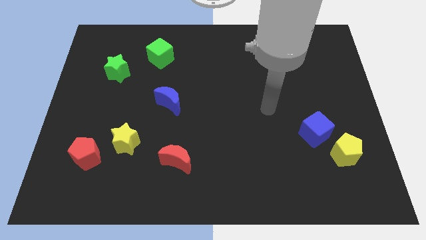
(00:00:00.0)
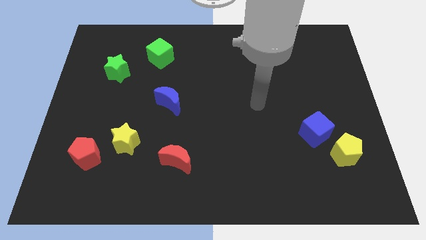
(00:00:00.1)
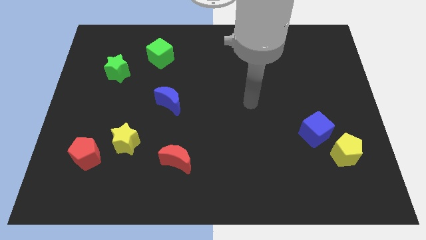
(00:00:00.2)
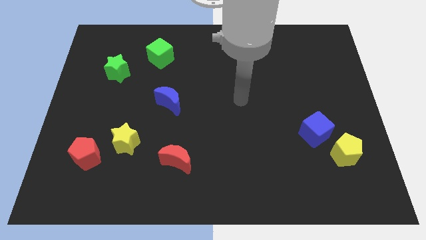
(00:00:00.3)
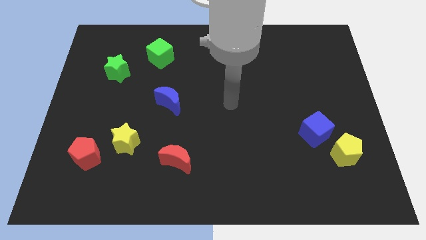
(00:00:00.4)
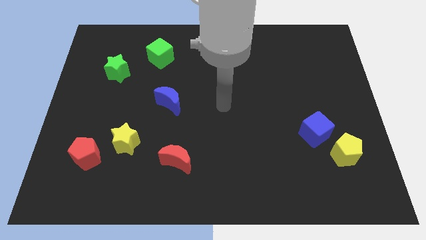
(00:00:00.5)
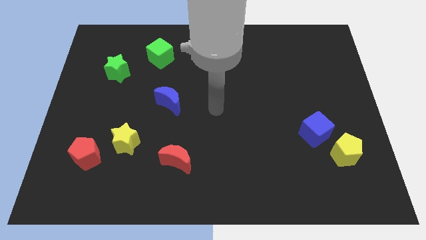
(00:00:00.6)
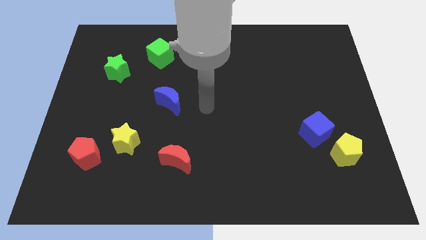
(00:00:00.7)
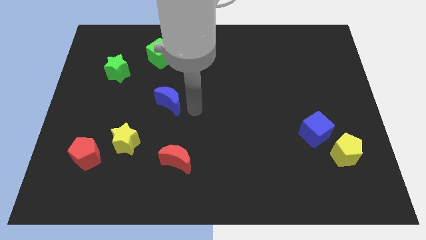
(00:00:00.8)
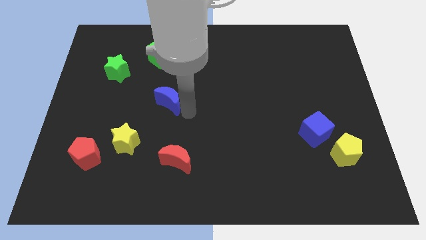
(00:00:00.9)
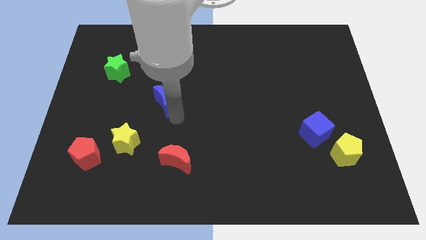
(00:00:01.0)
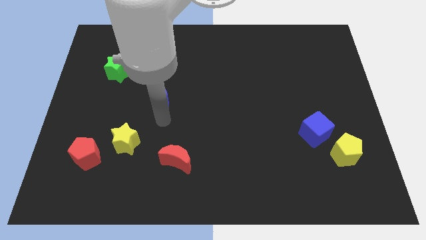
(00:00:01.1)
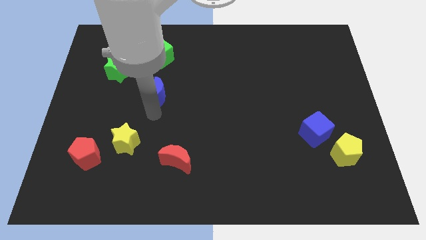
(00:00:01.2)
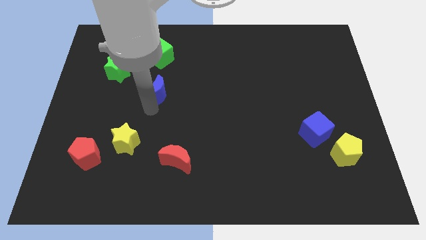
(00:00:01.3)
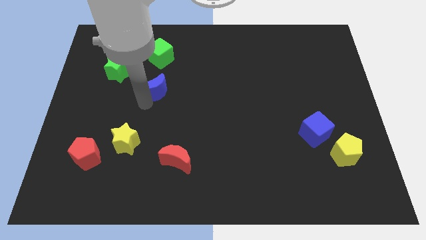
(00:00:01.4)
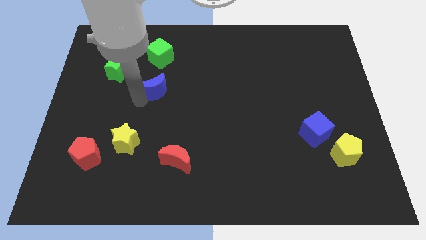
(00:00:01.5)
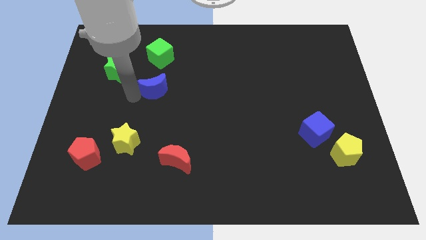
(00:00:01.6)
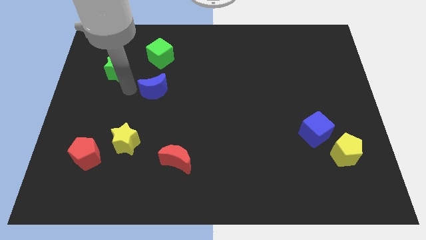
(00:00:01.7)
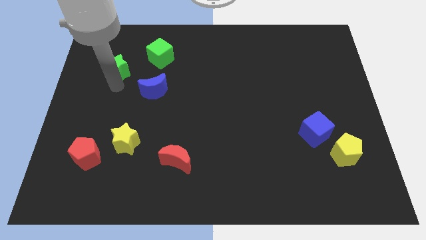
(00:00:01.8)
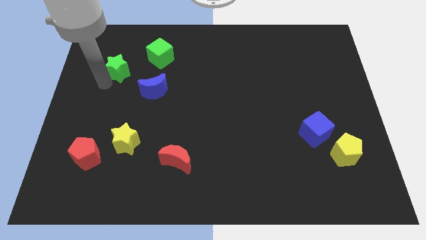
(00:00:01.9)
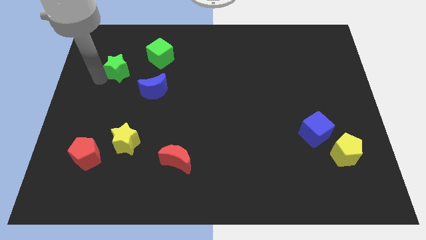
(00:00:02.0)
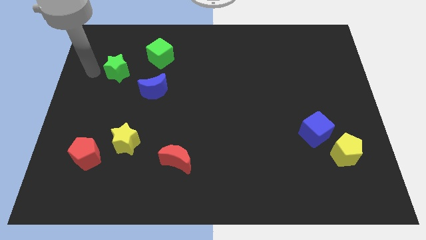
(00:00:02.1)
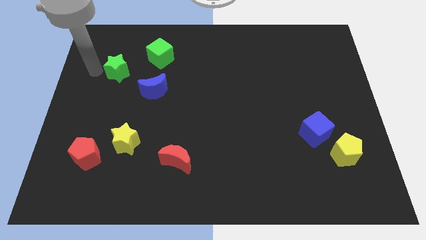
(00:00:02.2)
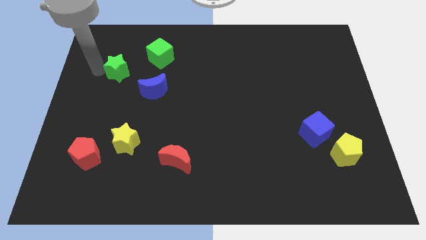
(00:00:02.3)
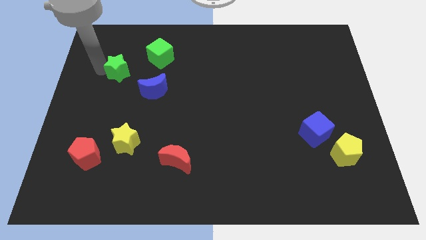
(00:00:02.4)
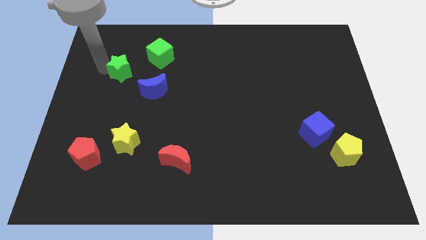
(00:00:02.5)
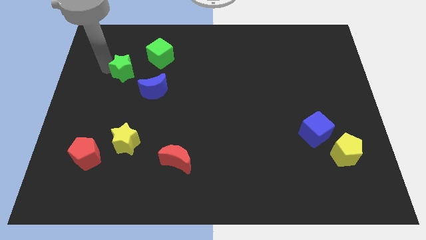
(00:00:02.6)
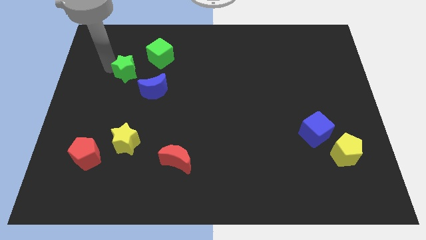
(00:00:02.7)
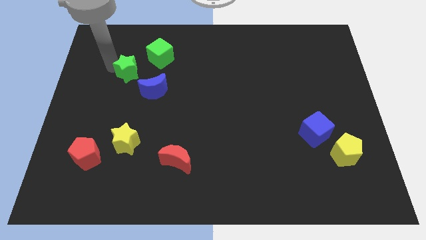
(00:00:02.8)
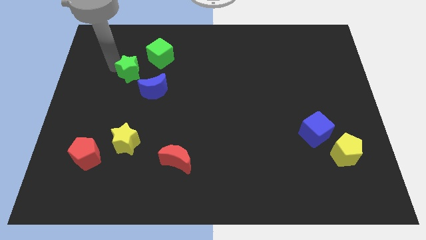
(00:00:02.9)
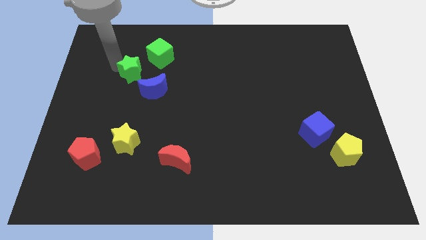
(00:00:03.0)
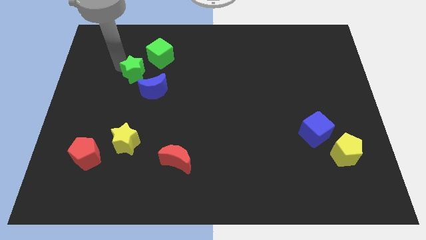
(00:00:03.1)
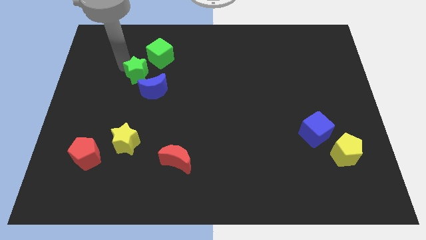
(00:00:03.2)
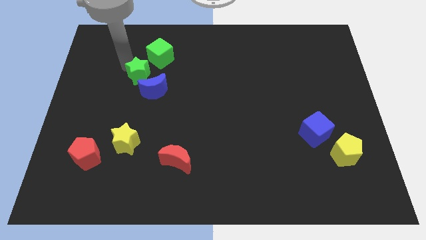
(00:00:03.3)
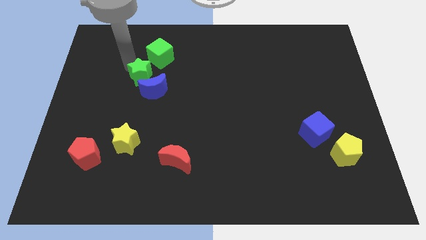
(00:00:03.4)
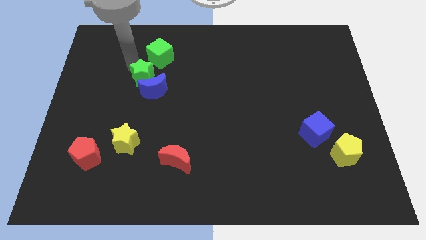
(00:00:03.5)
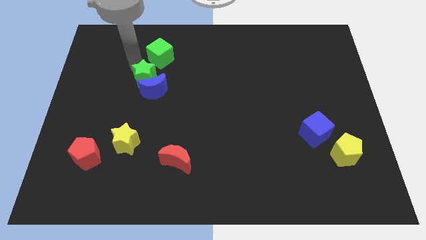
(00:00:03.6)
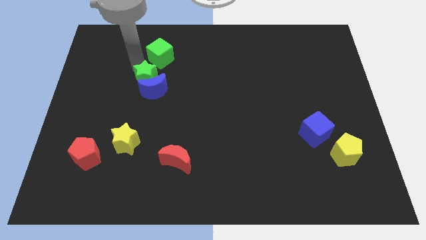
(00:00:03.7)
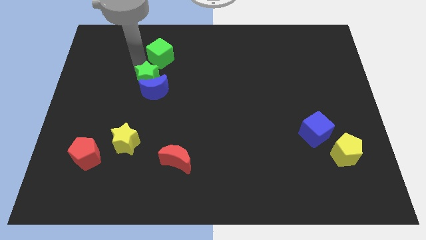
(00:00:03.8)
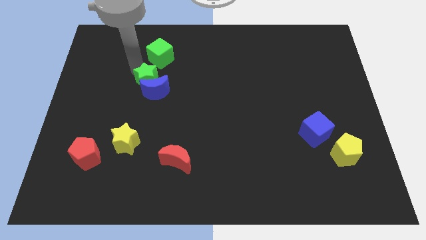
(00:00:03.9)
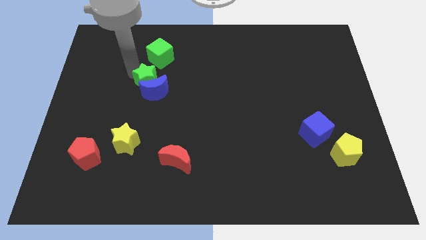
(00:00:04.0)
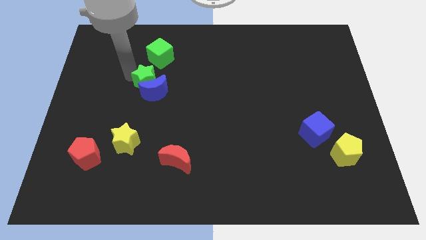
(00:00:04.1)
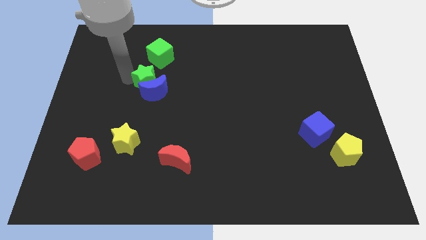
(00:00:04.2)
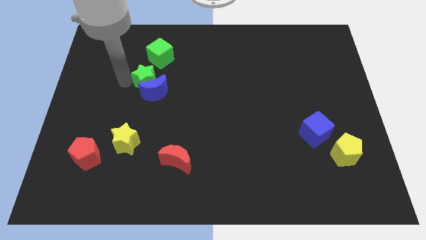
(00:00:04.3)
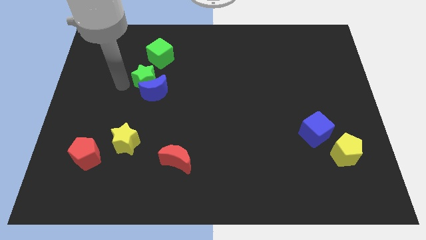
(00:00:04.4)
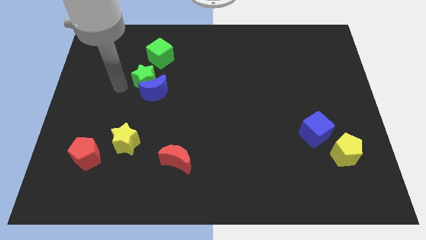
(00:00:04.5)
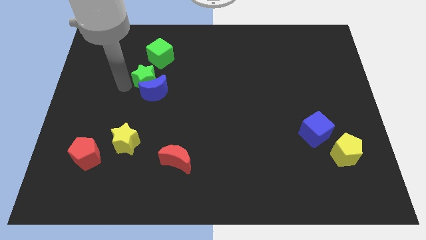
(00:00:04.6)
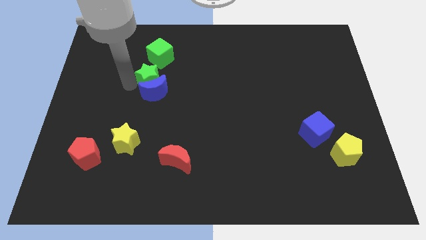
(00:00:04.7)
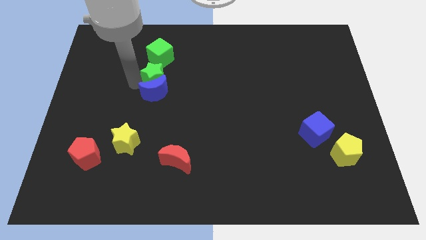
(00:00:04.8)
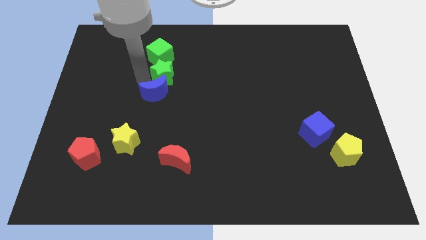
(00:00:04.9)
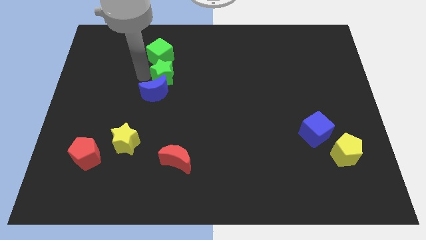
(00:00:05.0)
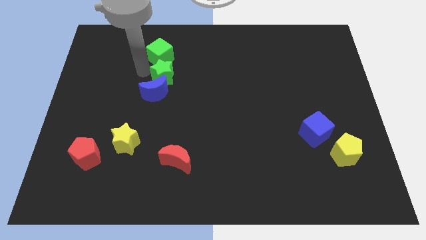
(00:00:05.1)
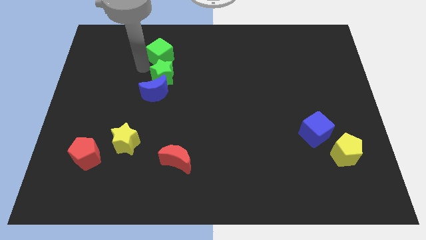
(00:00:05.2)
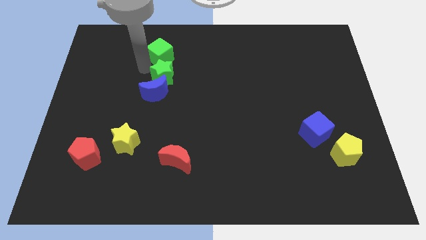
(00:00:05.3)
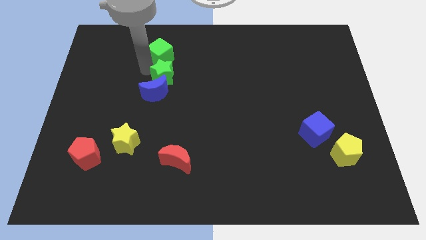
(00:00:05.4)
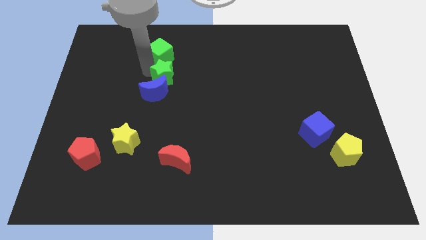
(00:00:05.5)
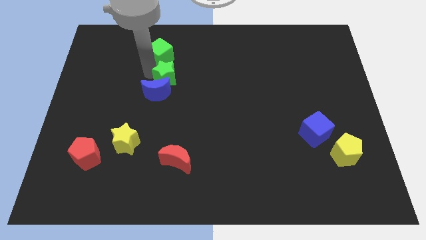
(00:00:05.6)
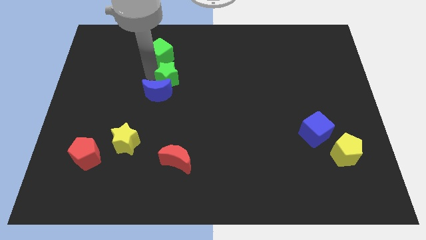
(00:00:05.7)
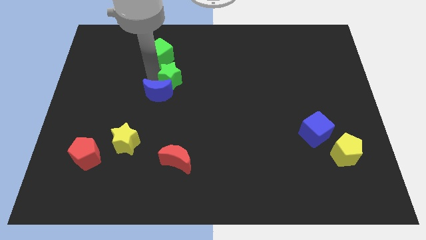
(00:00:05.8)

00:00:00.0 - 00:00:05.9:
slide the green star to the center
